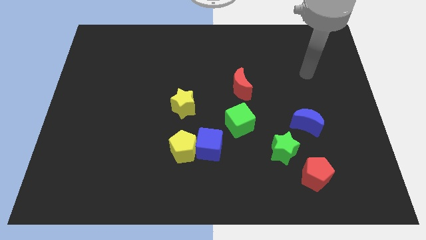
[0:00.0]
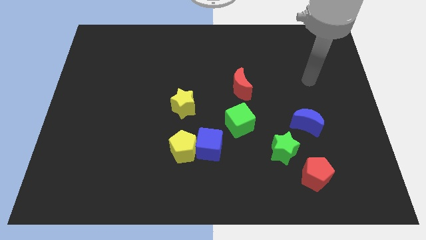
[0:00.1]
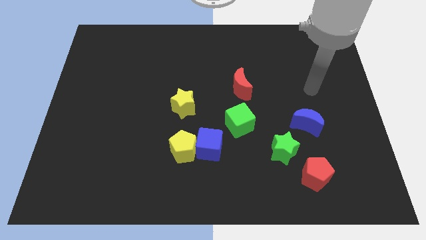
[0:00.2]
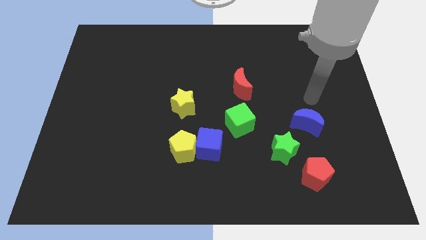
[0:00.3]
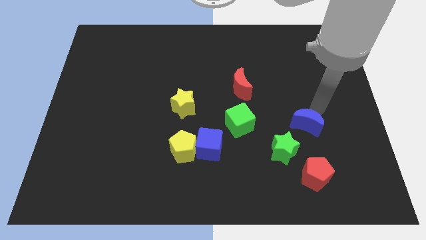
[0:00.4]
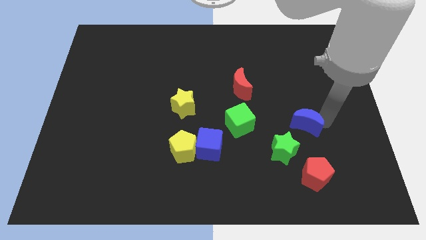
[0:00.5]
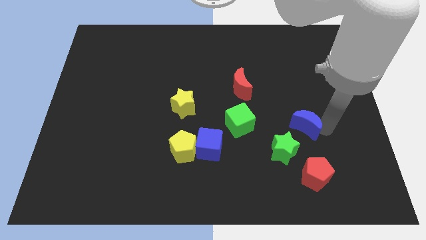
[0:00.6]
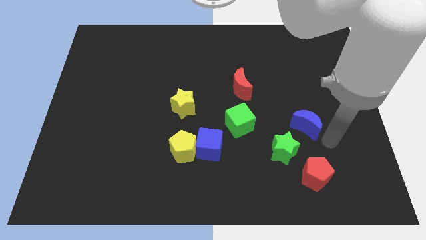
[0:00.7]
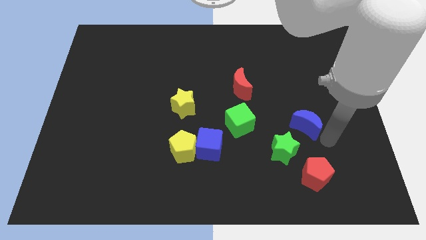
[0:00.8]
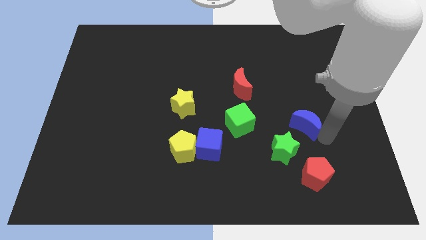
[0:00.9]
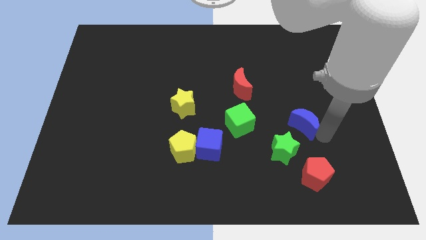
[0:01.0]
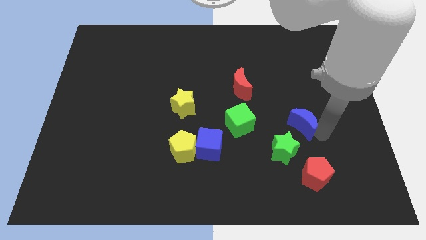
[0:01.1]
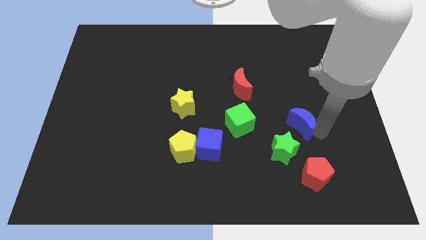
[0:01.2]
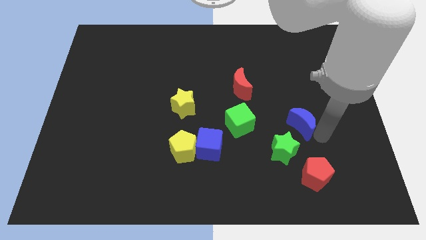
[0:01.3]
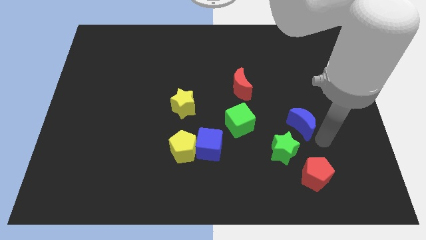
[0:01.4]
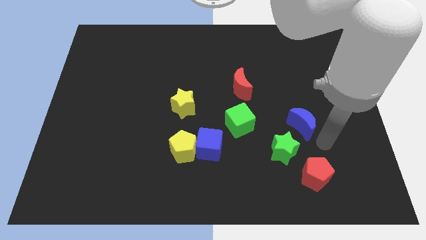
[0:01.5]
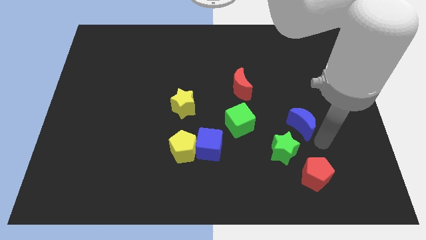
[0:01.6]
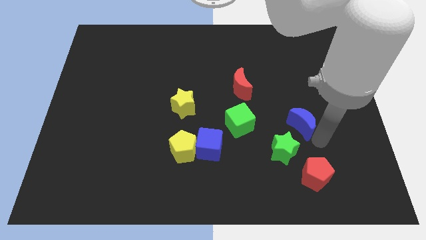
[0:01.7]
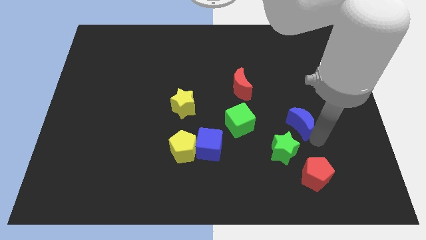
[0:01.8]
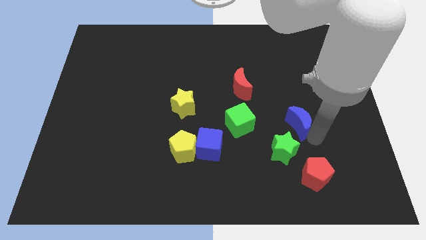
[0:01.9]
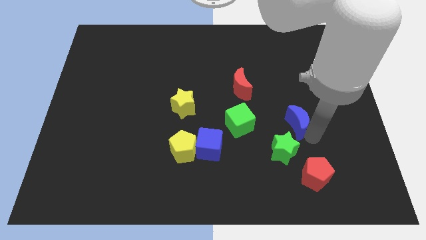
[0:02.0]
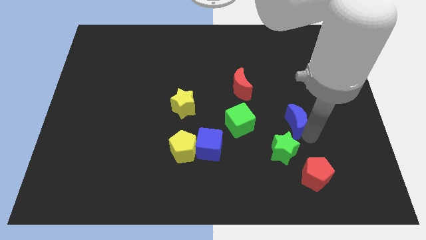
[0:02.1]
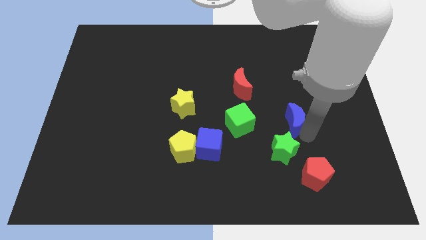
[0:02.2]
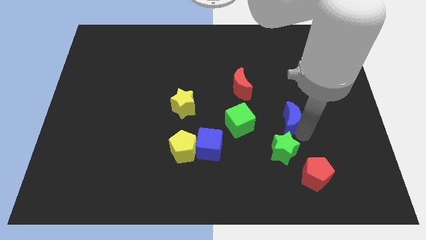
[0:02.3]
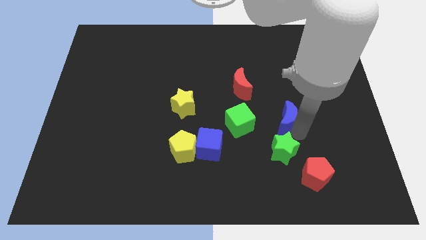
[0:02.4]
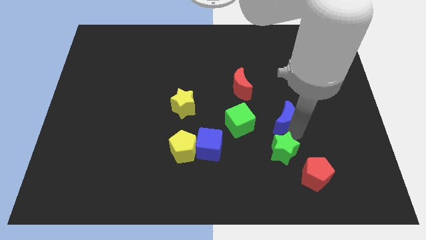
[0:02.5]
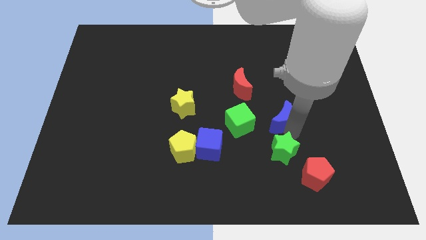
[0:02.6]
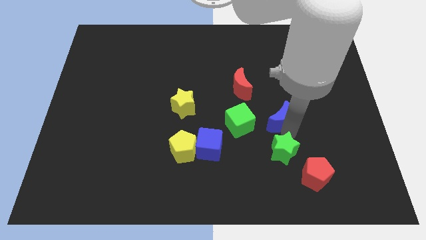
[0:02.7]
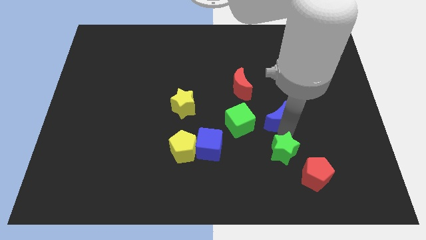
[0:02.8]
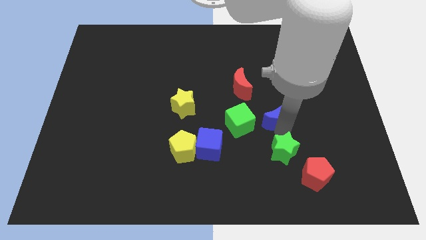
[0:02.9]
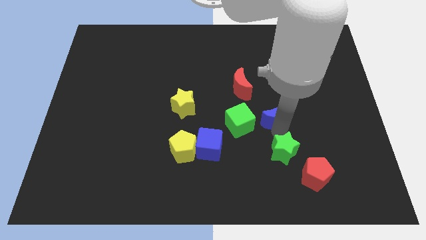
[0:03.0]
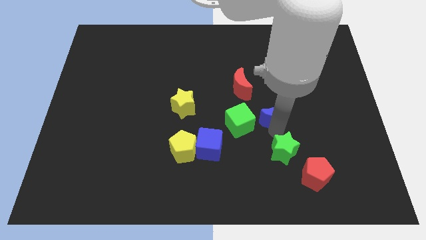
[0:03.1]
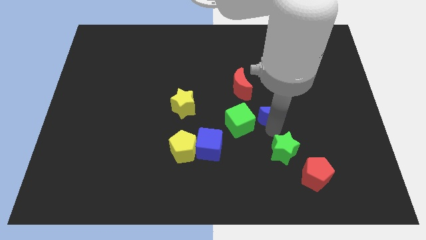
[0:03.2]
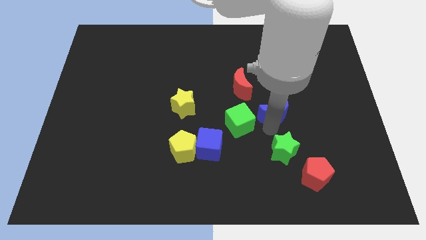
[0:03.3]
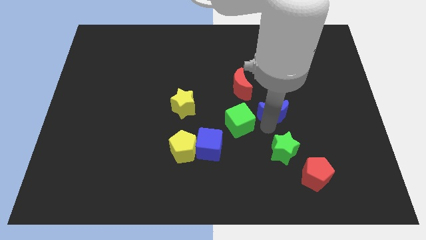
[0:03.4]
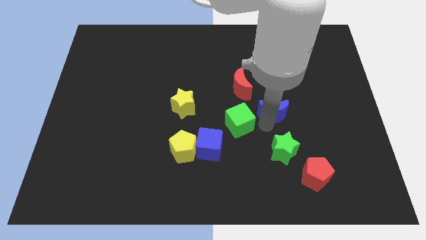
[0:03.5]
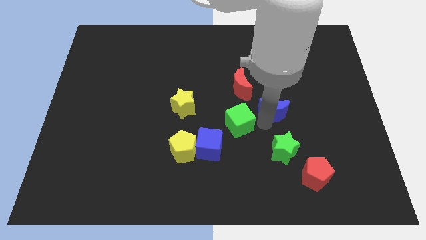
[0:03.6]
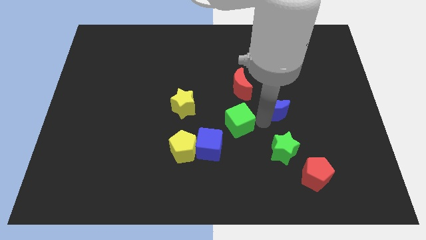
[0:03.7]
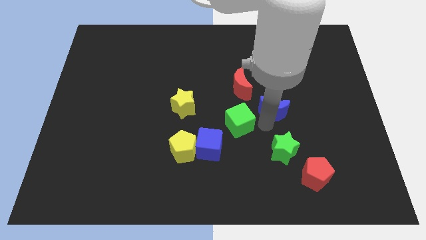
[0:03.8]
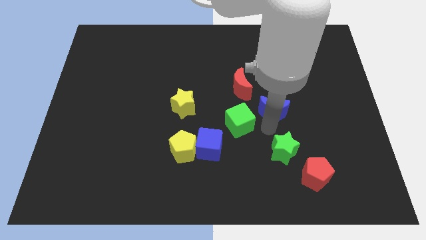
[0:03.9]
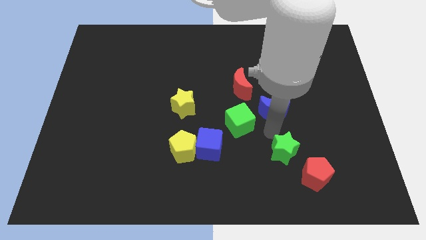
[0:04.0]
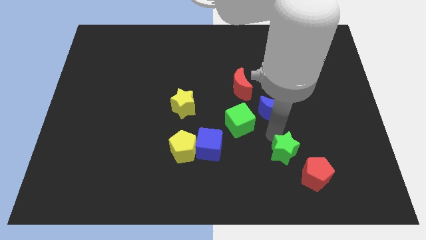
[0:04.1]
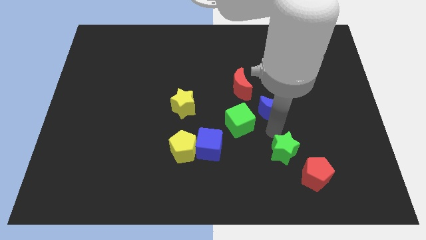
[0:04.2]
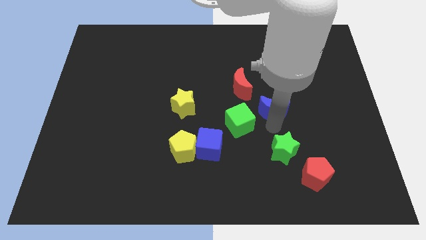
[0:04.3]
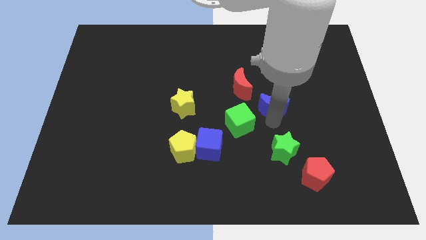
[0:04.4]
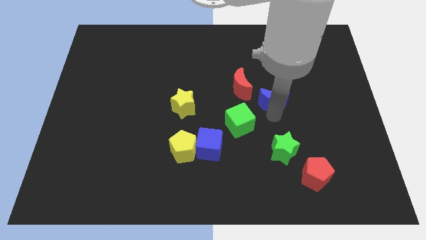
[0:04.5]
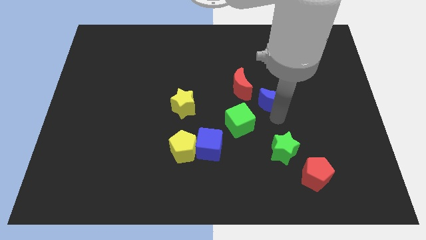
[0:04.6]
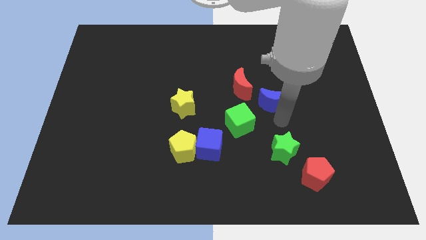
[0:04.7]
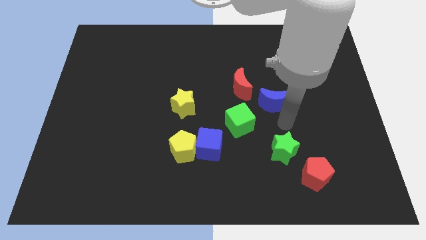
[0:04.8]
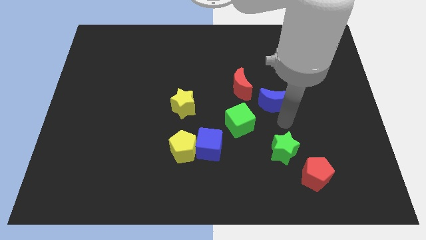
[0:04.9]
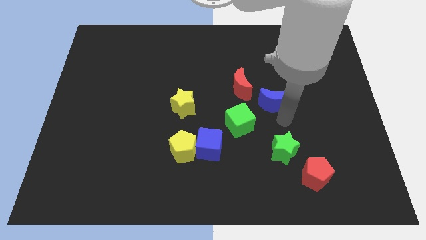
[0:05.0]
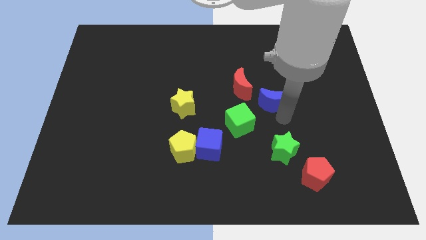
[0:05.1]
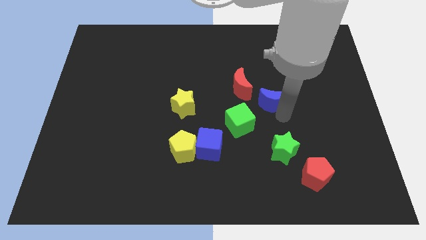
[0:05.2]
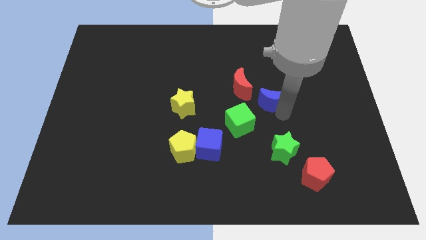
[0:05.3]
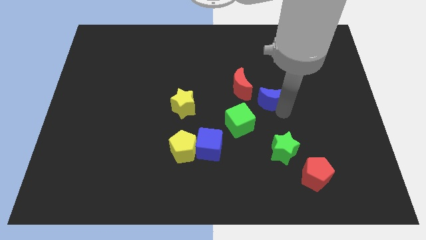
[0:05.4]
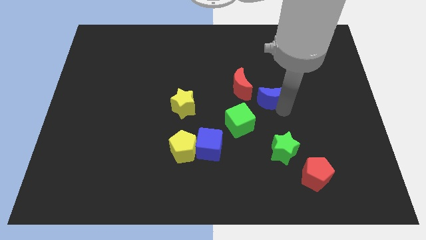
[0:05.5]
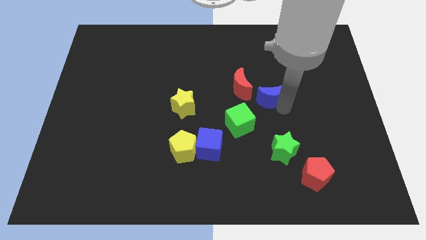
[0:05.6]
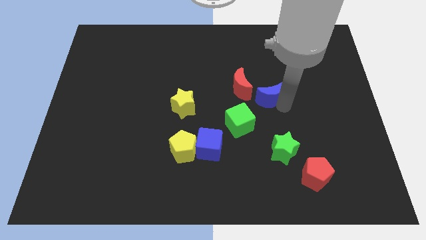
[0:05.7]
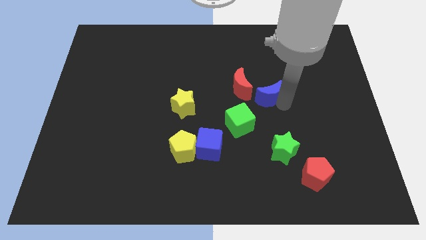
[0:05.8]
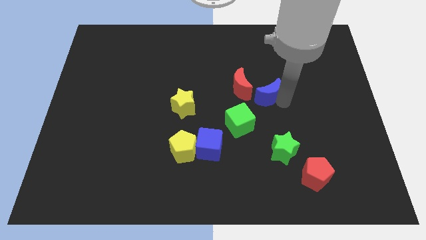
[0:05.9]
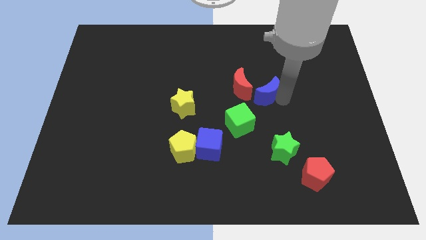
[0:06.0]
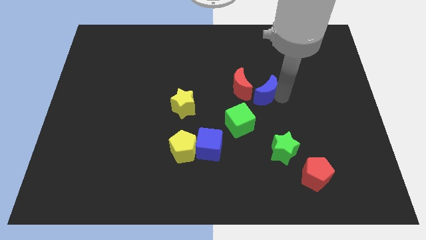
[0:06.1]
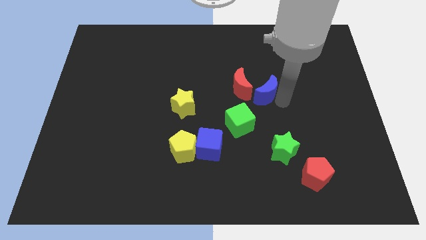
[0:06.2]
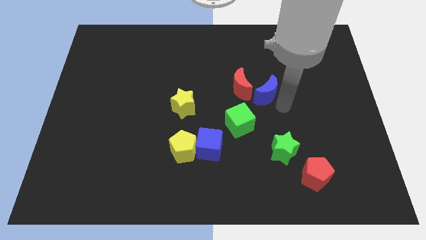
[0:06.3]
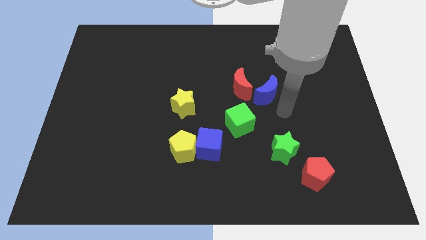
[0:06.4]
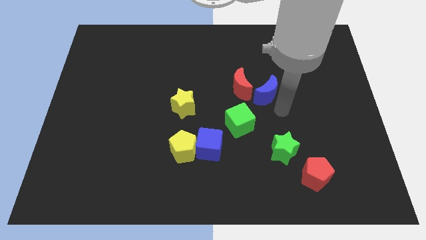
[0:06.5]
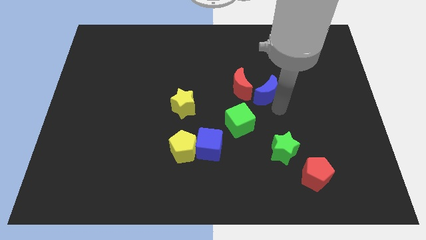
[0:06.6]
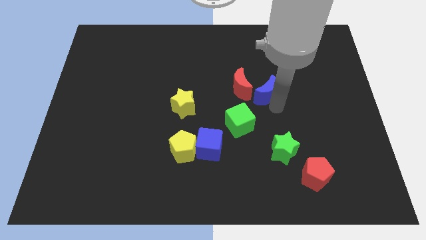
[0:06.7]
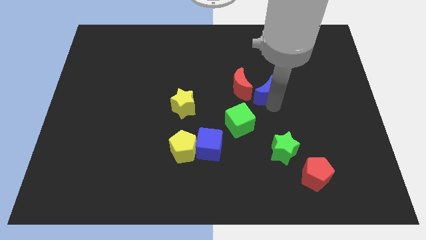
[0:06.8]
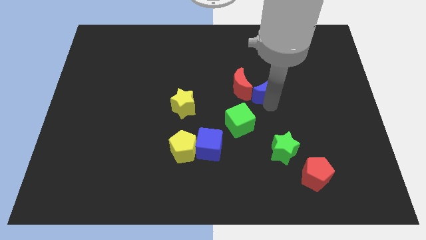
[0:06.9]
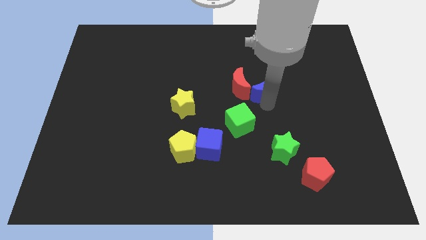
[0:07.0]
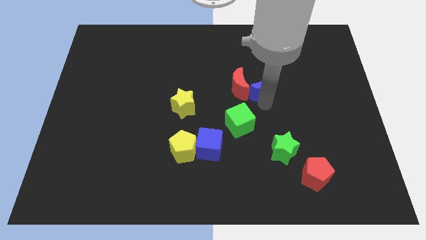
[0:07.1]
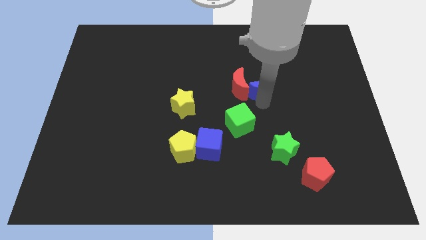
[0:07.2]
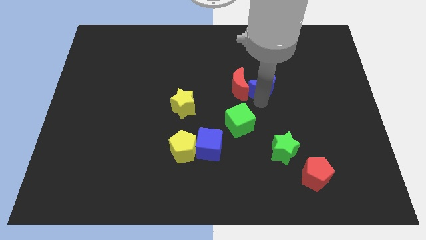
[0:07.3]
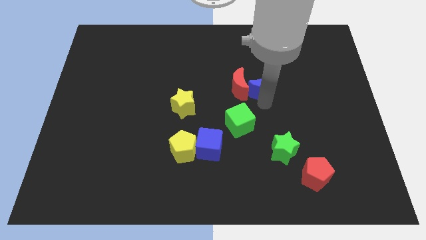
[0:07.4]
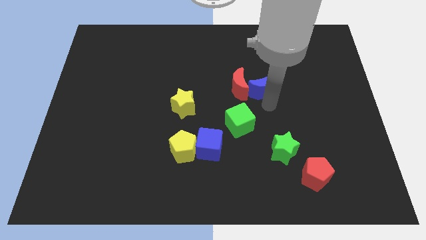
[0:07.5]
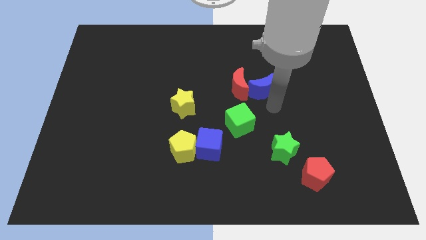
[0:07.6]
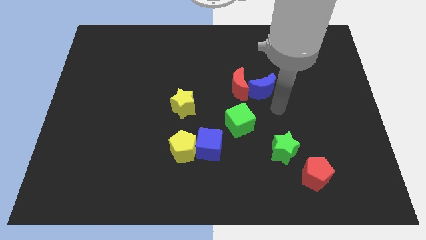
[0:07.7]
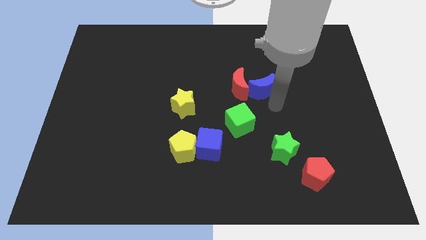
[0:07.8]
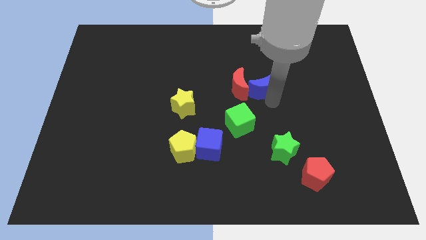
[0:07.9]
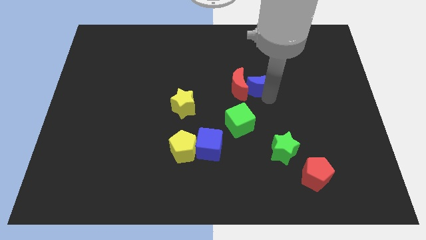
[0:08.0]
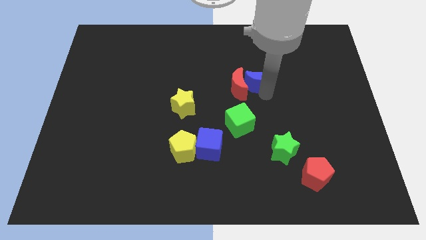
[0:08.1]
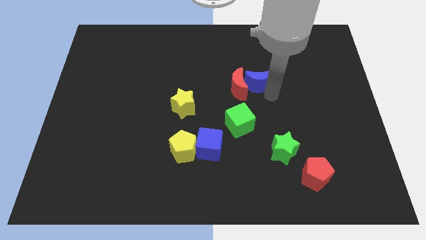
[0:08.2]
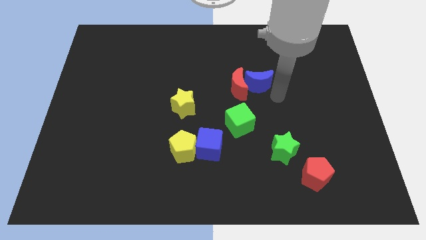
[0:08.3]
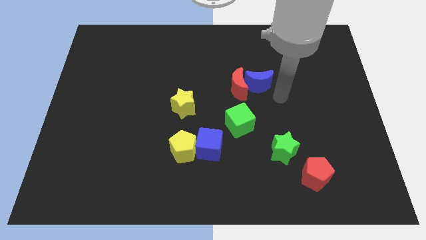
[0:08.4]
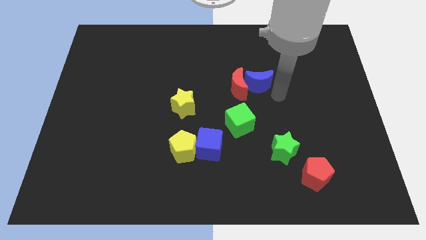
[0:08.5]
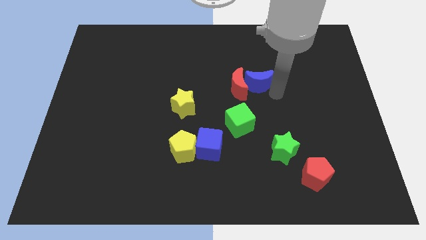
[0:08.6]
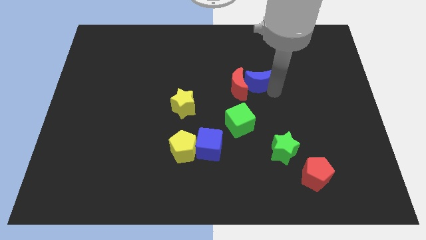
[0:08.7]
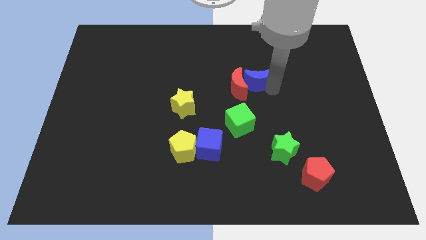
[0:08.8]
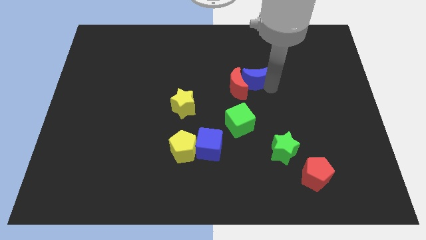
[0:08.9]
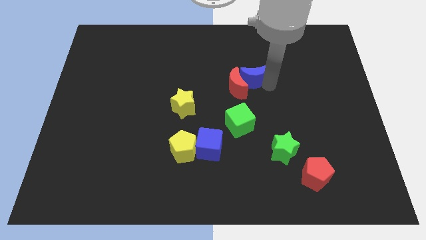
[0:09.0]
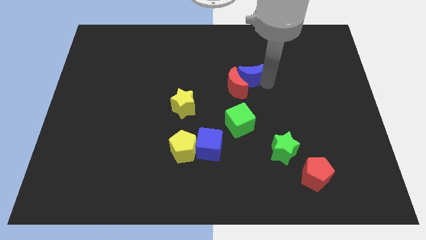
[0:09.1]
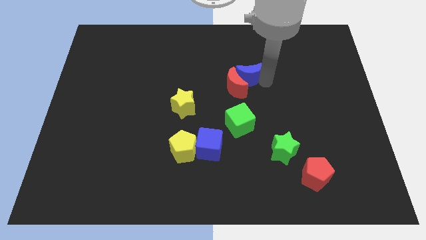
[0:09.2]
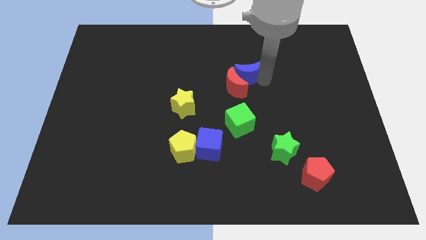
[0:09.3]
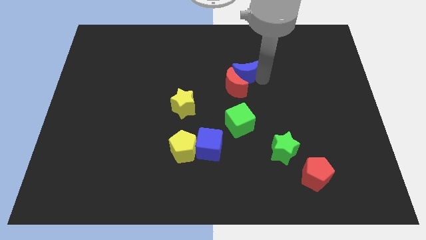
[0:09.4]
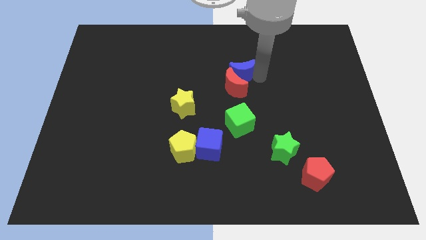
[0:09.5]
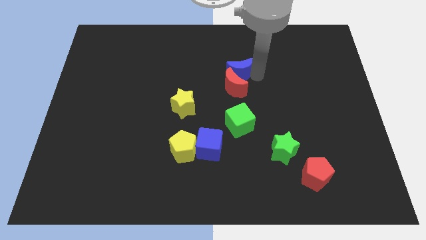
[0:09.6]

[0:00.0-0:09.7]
move the blue moon diagonally up and to the left of the red moon
